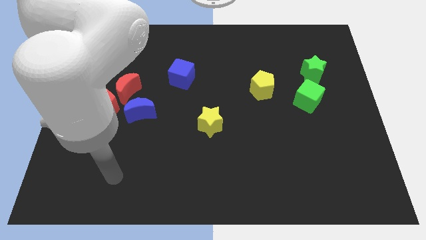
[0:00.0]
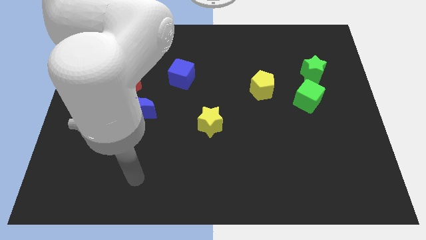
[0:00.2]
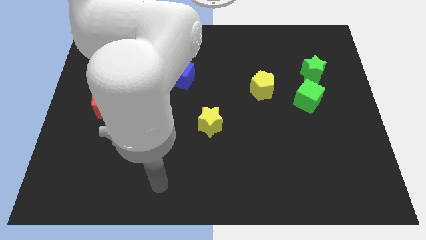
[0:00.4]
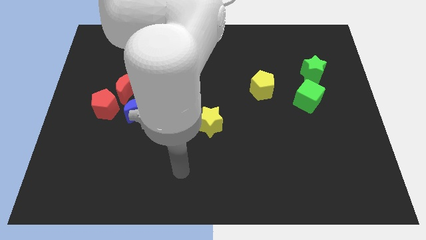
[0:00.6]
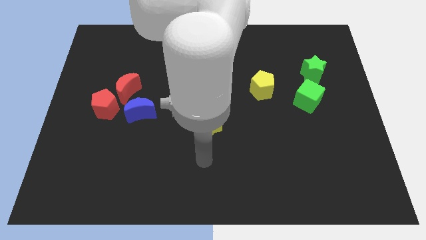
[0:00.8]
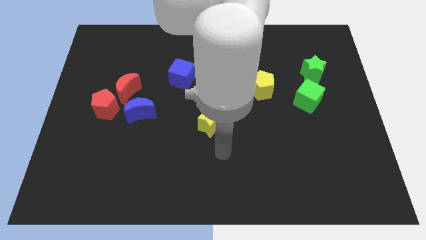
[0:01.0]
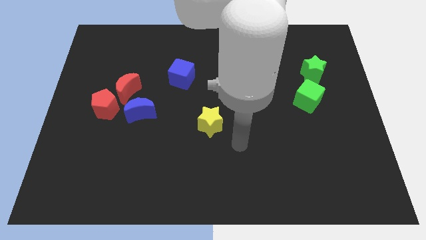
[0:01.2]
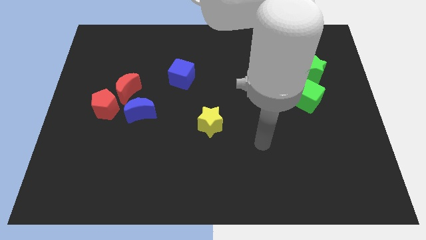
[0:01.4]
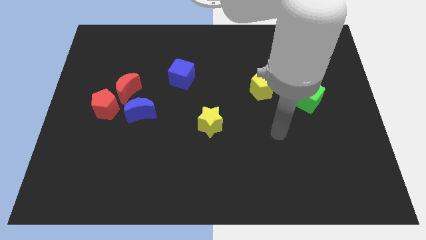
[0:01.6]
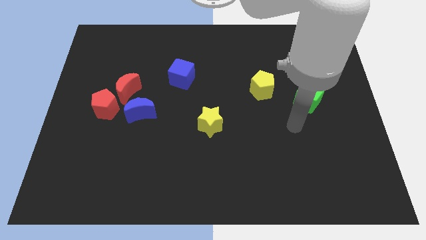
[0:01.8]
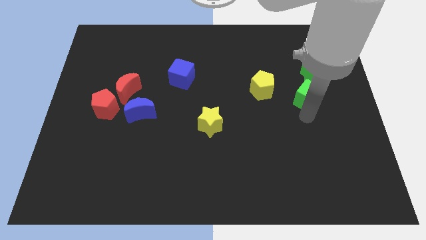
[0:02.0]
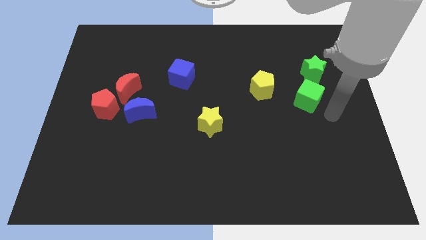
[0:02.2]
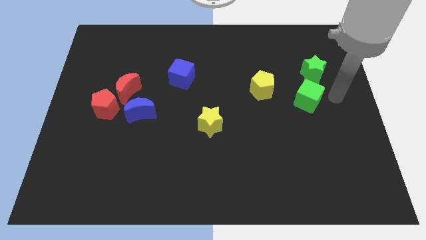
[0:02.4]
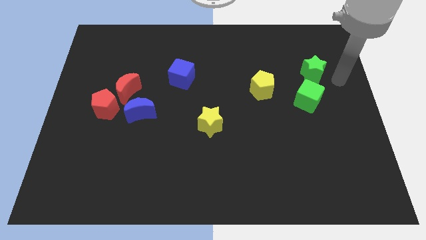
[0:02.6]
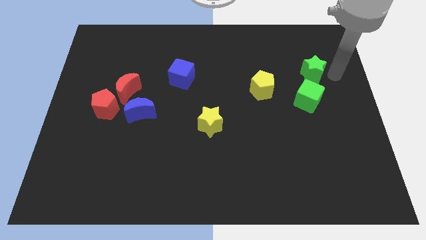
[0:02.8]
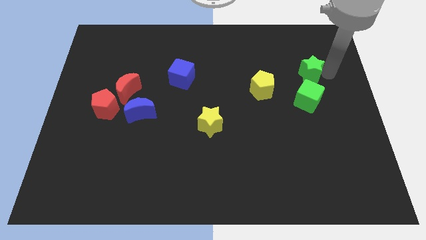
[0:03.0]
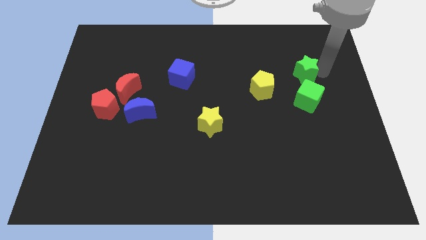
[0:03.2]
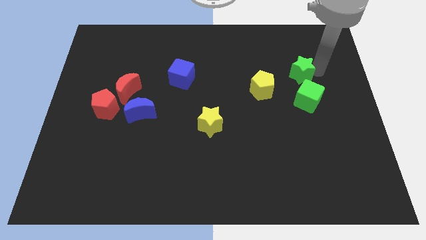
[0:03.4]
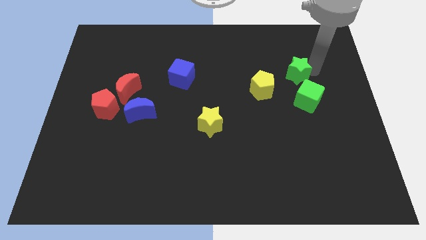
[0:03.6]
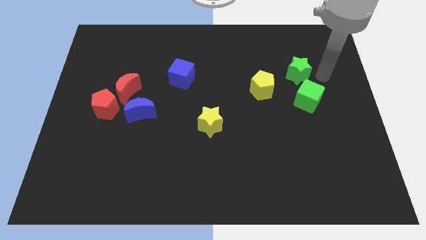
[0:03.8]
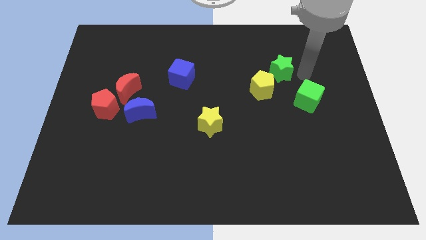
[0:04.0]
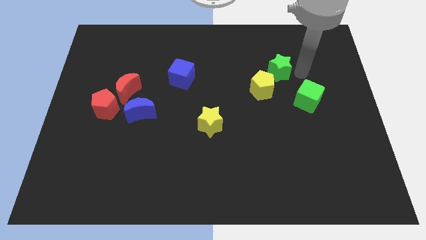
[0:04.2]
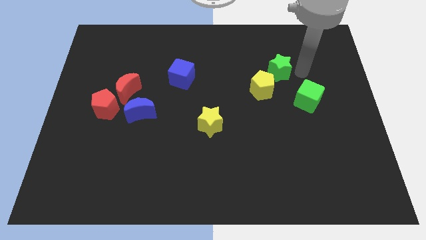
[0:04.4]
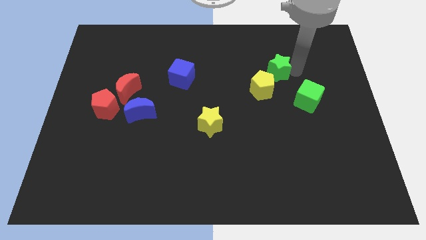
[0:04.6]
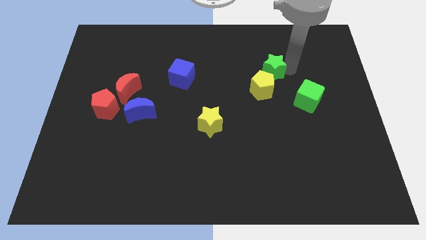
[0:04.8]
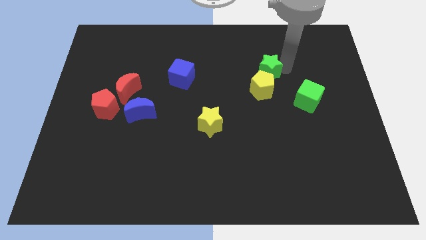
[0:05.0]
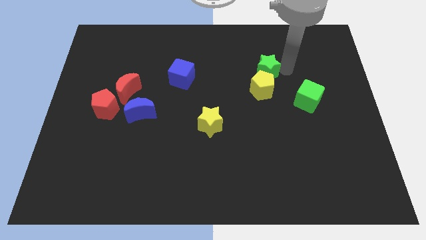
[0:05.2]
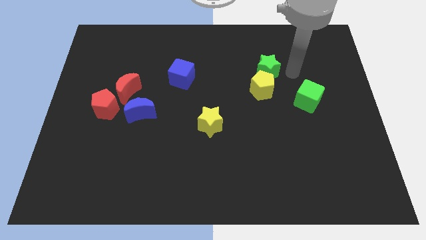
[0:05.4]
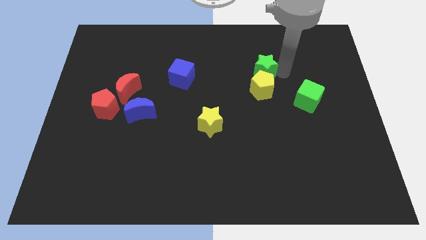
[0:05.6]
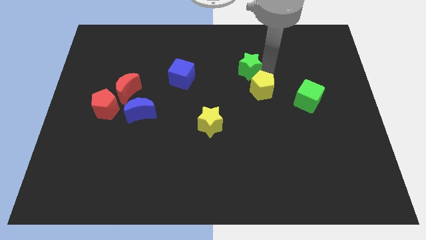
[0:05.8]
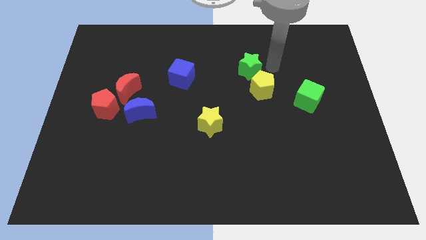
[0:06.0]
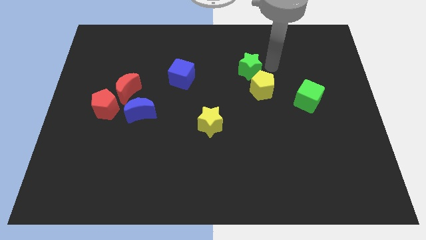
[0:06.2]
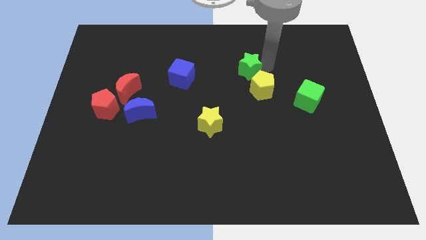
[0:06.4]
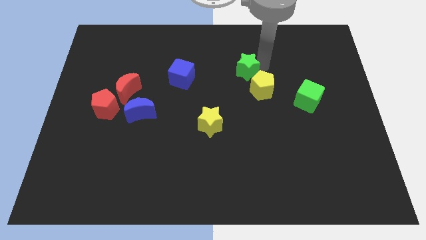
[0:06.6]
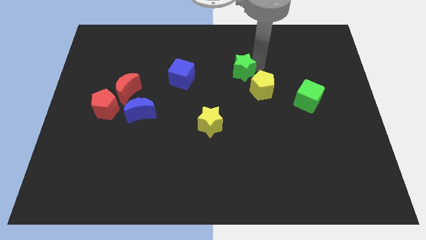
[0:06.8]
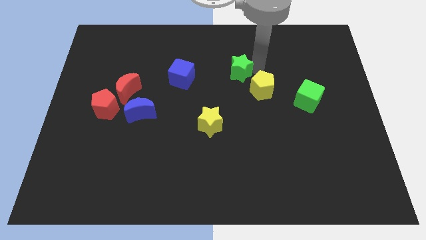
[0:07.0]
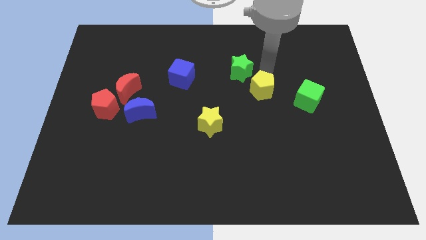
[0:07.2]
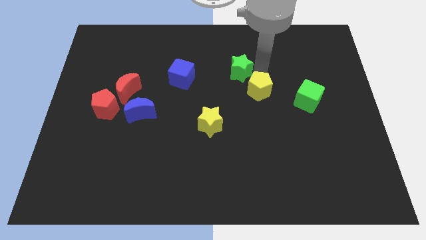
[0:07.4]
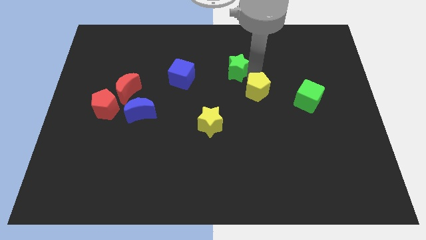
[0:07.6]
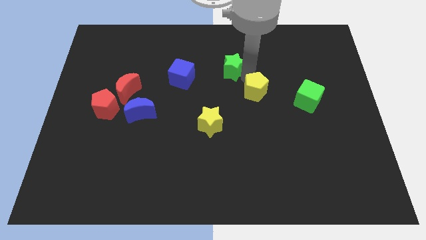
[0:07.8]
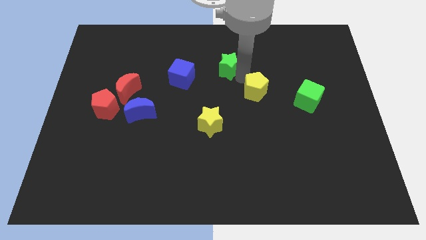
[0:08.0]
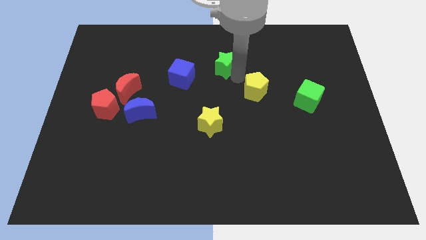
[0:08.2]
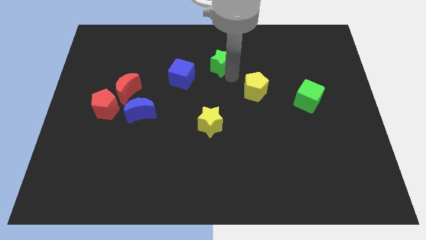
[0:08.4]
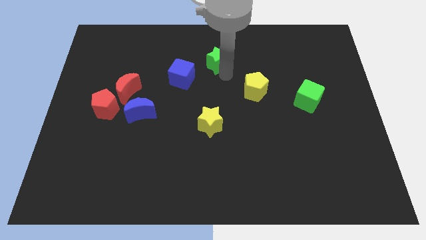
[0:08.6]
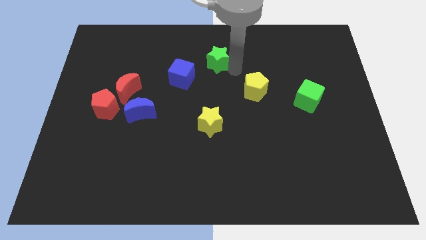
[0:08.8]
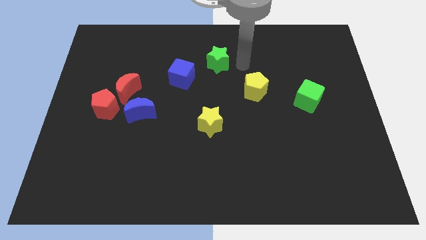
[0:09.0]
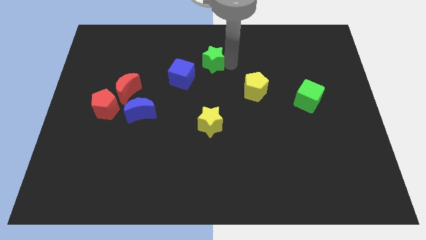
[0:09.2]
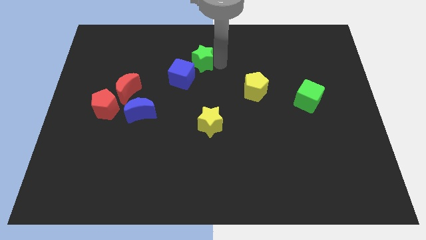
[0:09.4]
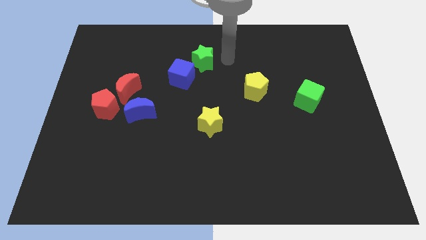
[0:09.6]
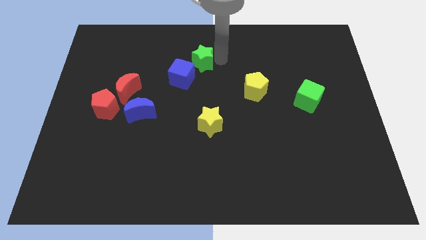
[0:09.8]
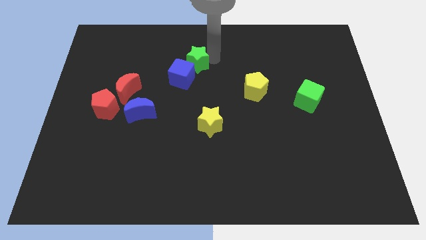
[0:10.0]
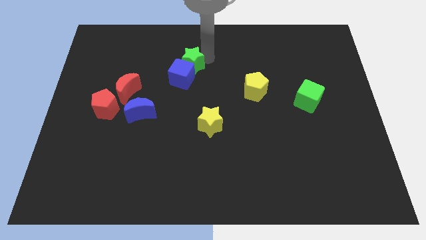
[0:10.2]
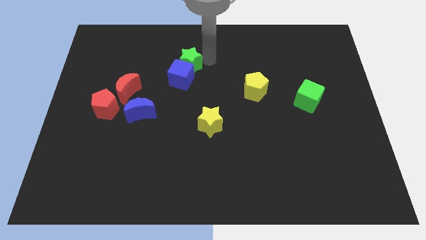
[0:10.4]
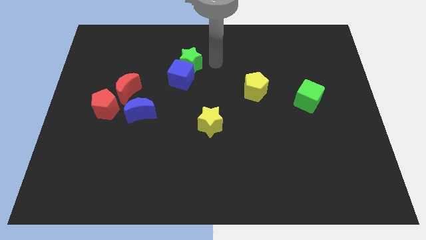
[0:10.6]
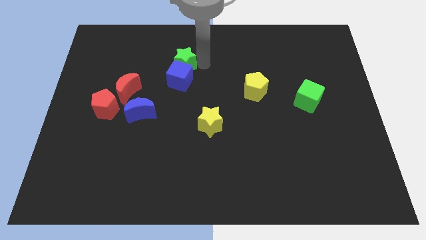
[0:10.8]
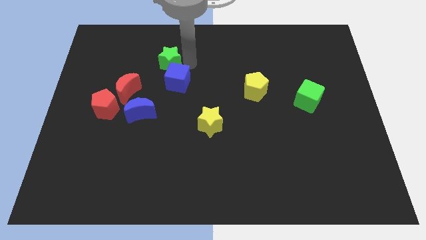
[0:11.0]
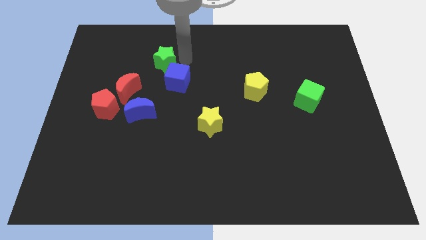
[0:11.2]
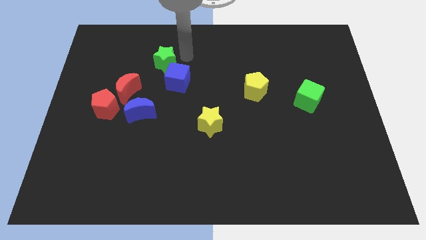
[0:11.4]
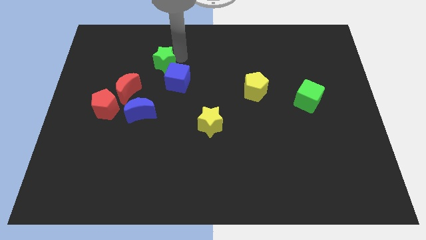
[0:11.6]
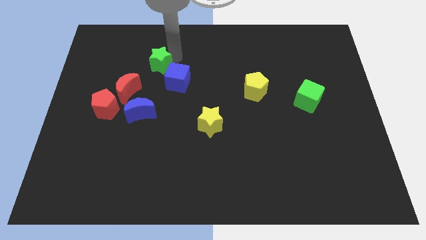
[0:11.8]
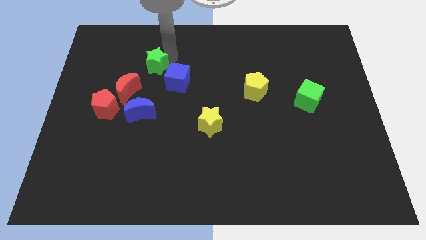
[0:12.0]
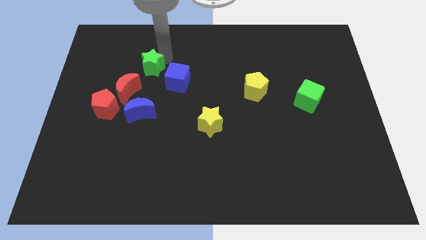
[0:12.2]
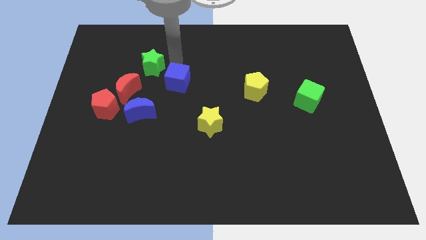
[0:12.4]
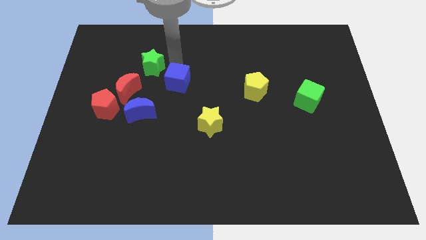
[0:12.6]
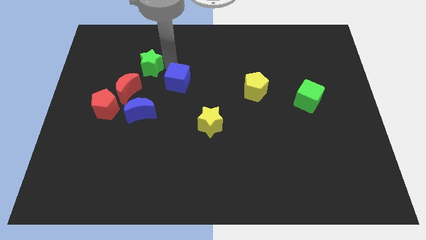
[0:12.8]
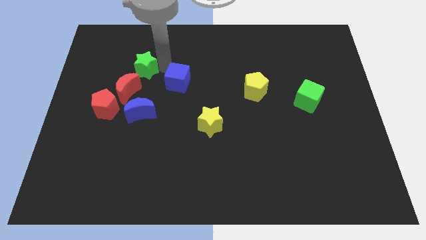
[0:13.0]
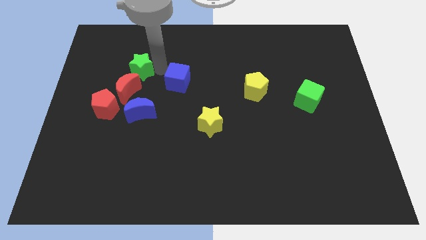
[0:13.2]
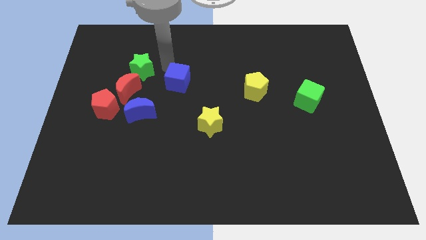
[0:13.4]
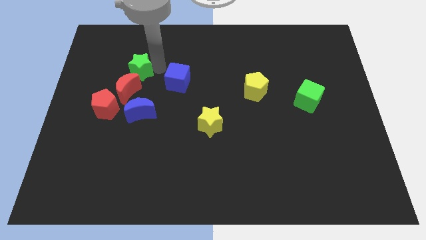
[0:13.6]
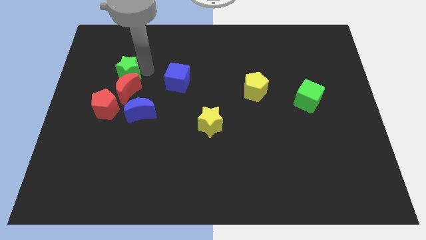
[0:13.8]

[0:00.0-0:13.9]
move the green star to the top of the red pentagon
